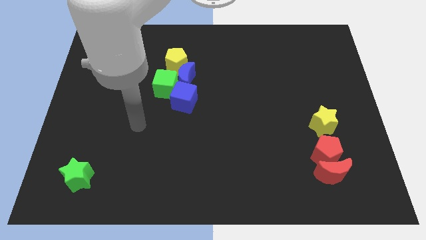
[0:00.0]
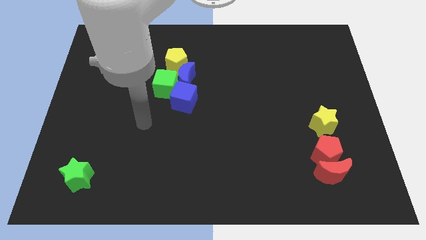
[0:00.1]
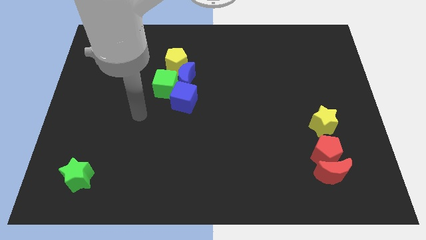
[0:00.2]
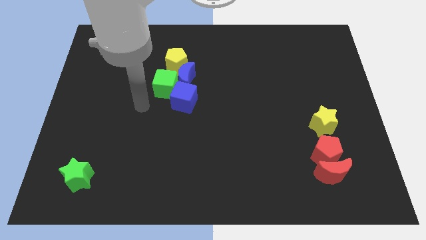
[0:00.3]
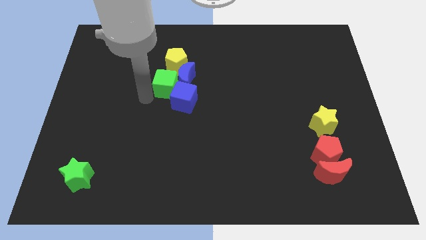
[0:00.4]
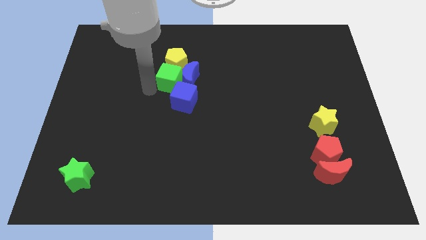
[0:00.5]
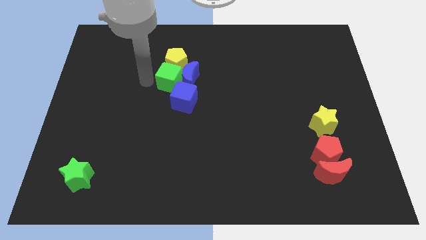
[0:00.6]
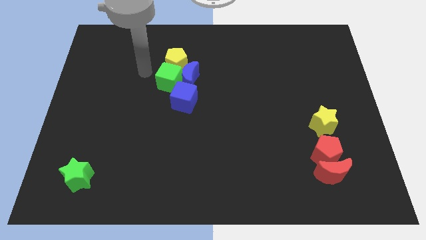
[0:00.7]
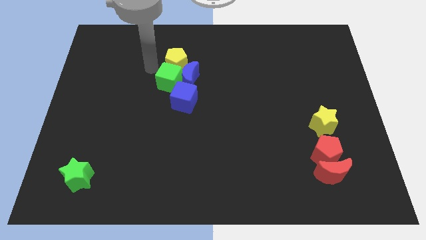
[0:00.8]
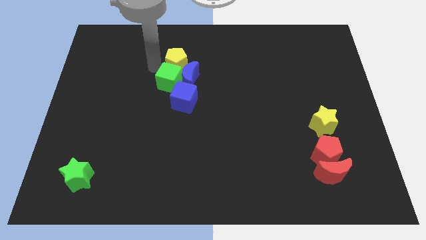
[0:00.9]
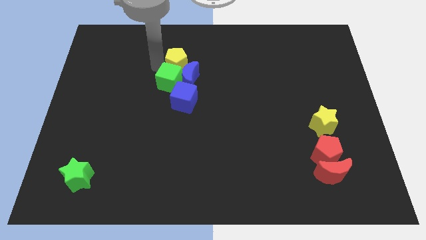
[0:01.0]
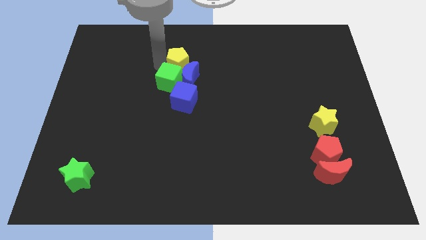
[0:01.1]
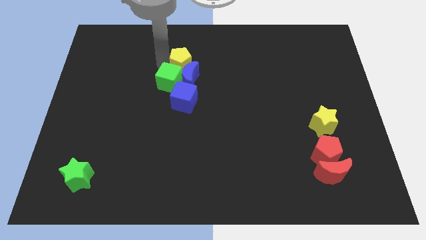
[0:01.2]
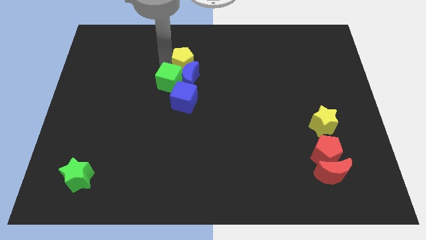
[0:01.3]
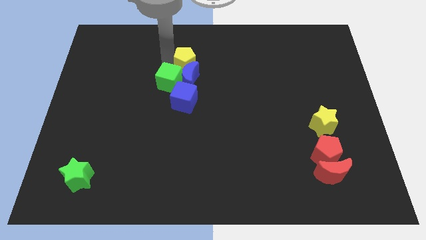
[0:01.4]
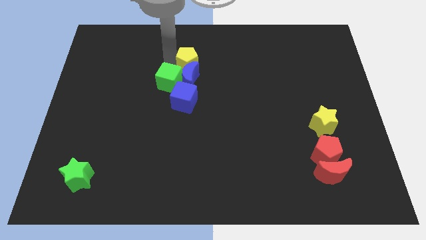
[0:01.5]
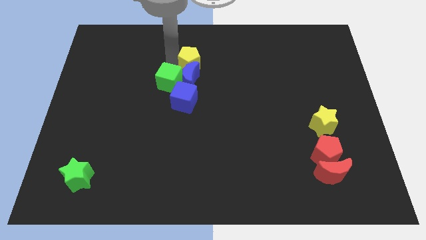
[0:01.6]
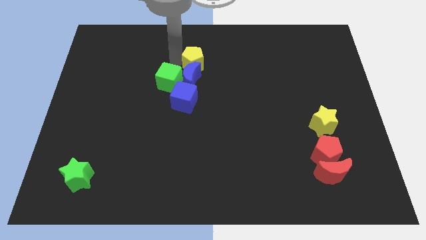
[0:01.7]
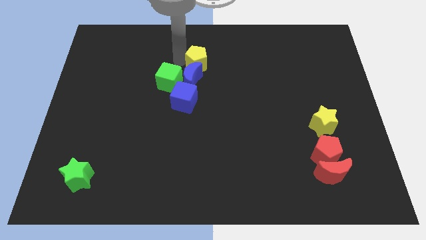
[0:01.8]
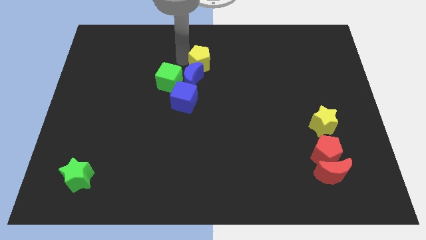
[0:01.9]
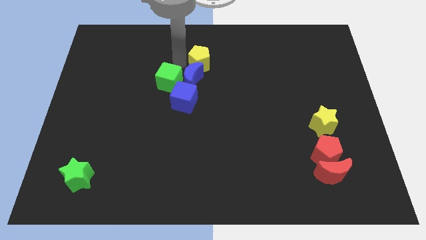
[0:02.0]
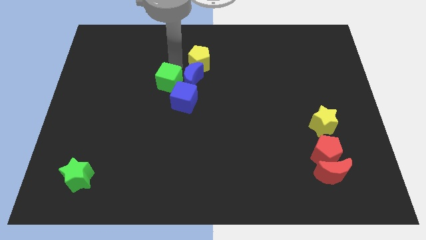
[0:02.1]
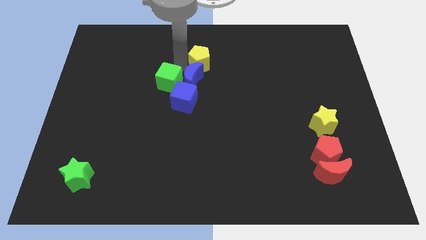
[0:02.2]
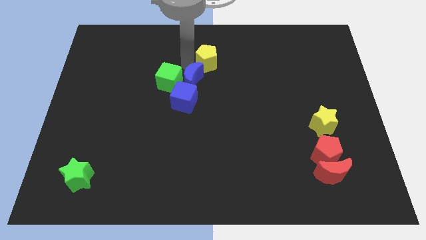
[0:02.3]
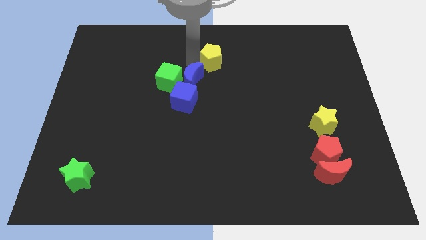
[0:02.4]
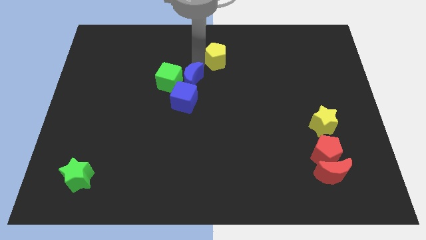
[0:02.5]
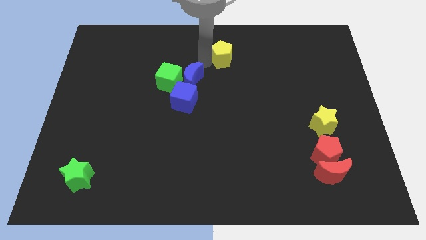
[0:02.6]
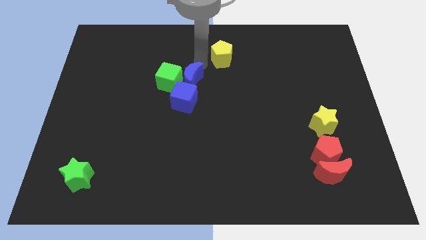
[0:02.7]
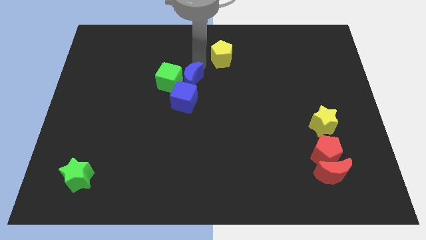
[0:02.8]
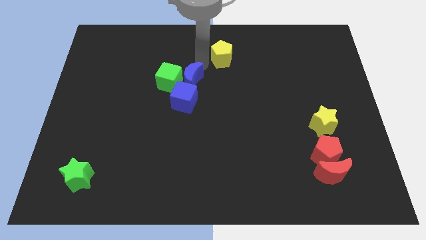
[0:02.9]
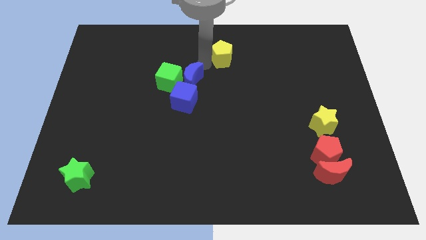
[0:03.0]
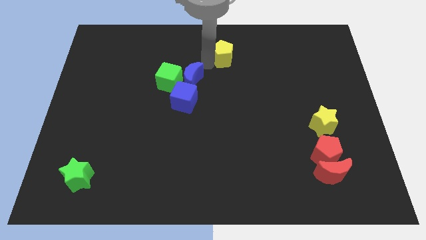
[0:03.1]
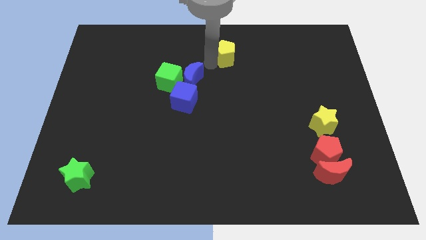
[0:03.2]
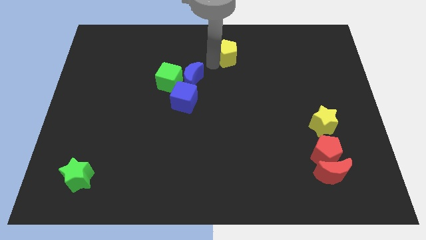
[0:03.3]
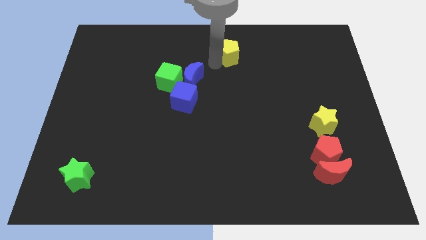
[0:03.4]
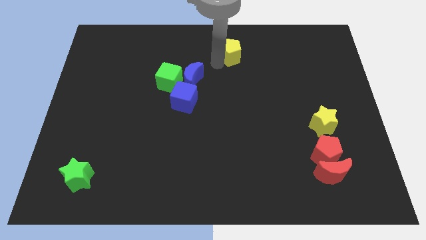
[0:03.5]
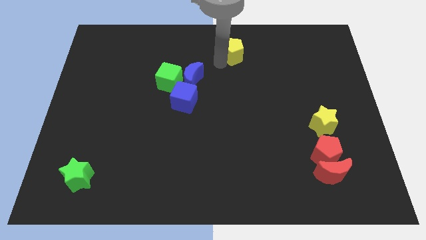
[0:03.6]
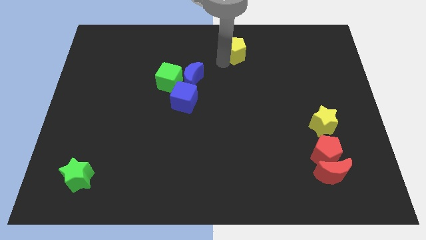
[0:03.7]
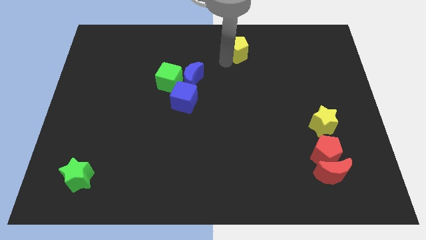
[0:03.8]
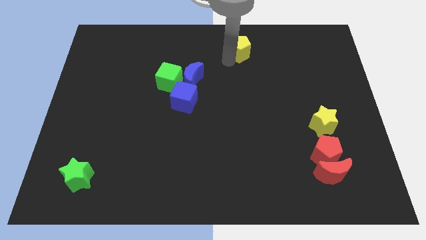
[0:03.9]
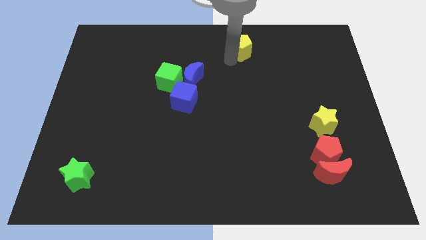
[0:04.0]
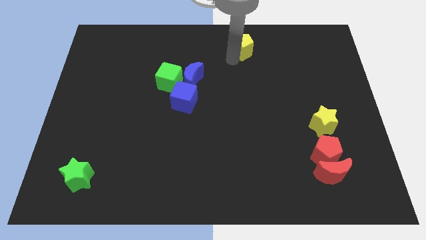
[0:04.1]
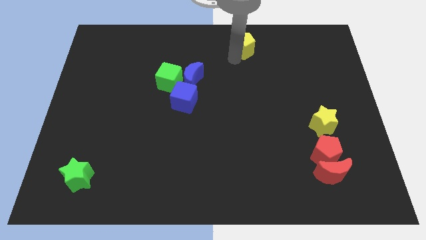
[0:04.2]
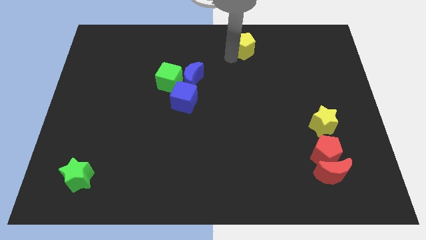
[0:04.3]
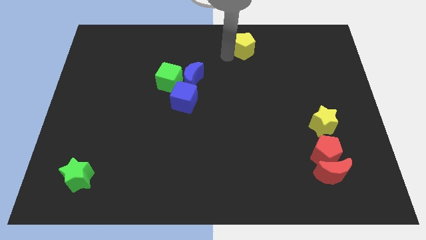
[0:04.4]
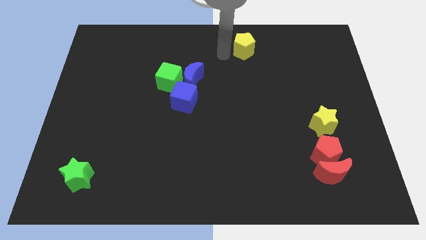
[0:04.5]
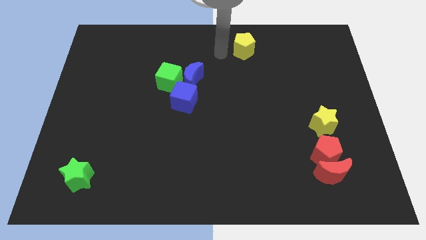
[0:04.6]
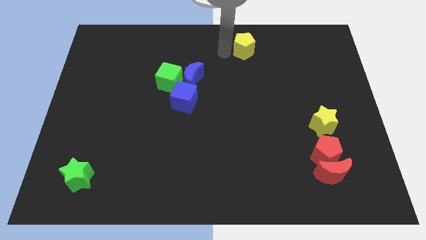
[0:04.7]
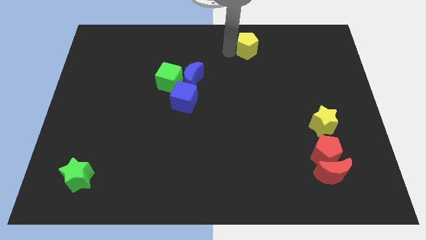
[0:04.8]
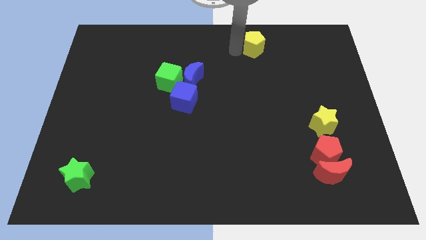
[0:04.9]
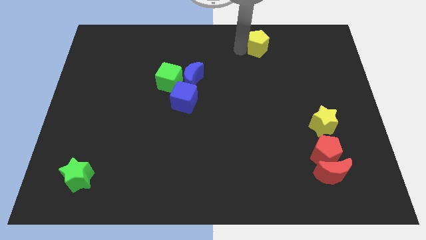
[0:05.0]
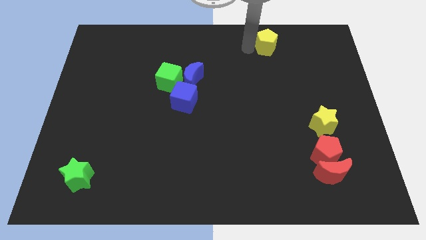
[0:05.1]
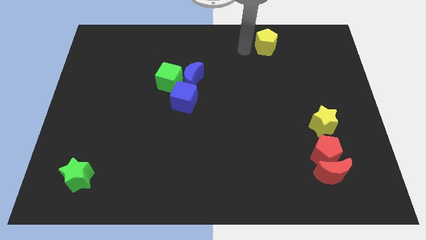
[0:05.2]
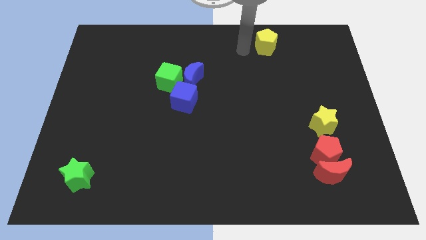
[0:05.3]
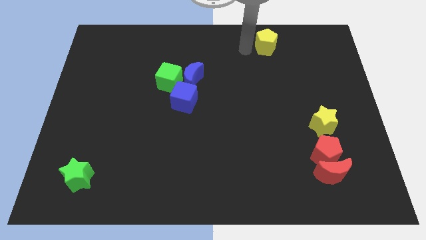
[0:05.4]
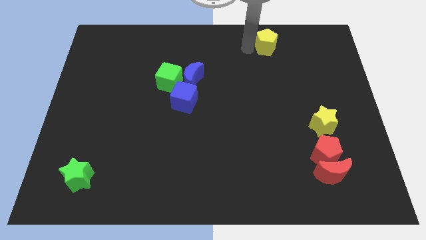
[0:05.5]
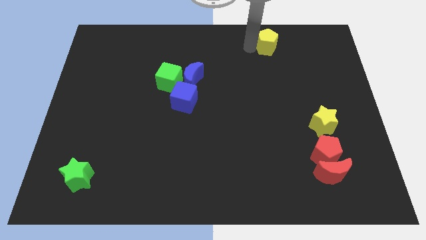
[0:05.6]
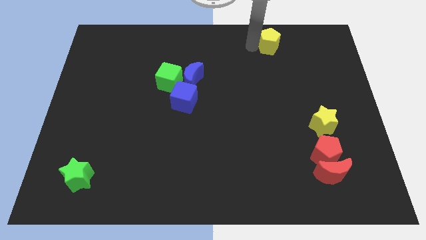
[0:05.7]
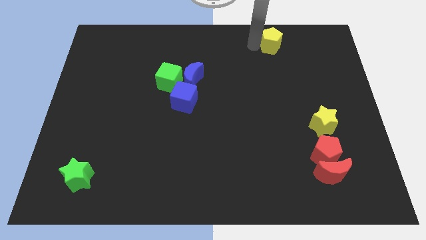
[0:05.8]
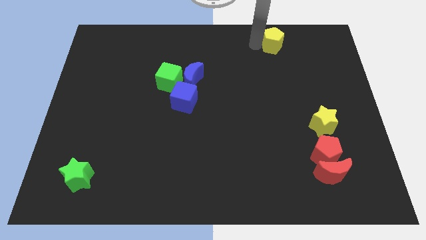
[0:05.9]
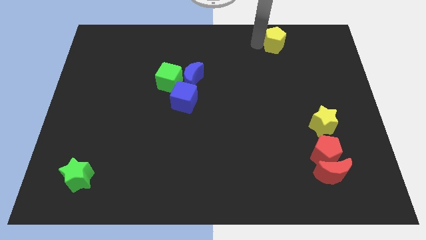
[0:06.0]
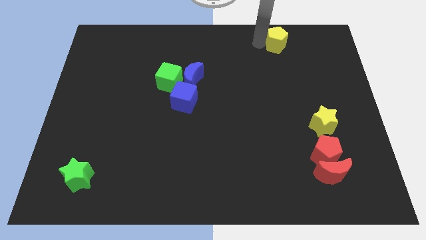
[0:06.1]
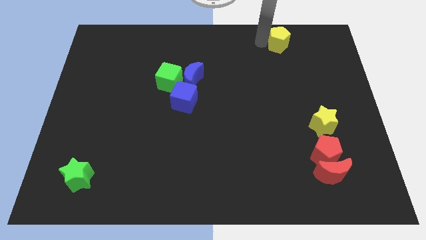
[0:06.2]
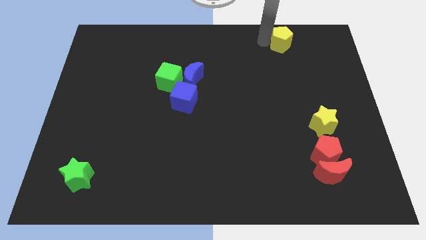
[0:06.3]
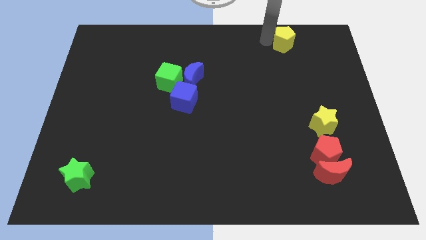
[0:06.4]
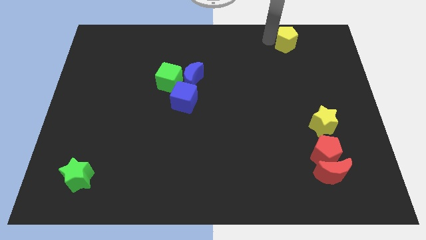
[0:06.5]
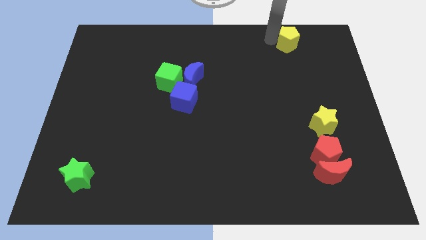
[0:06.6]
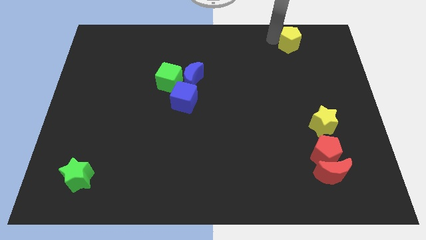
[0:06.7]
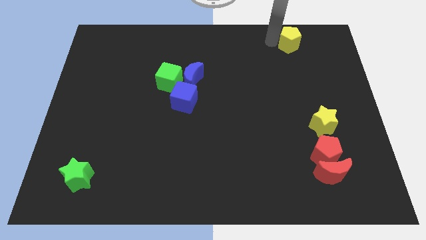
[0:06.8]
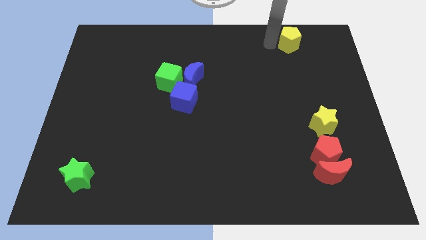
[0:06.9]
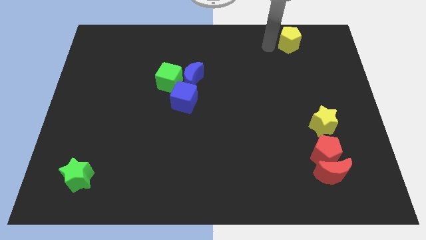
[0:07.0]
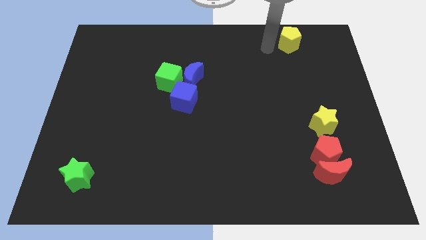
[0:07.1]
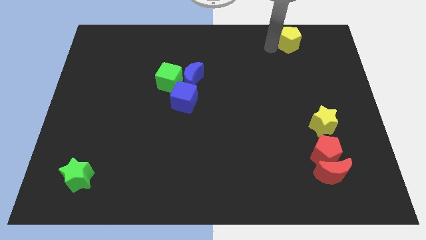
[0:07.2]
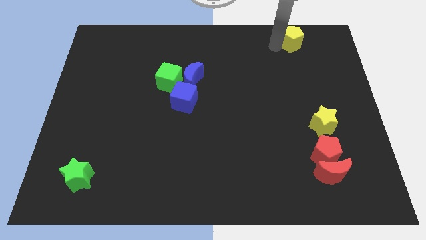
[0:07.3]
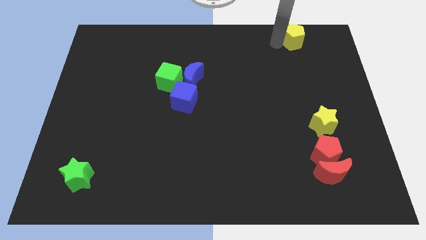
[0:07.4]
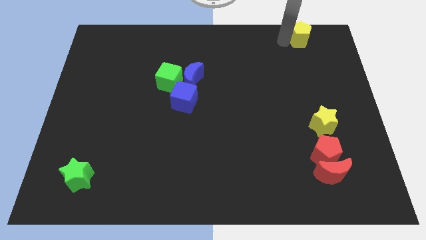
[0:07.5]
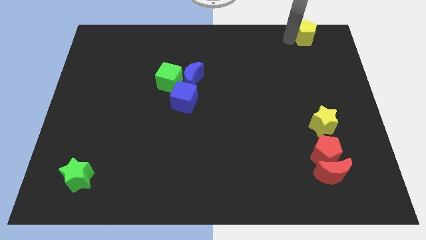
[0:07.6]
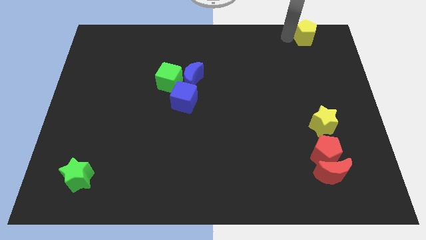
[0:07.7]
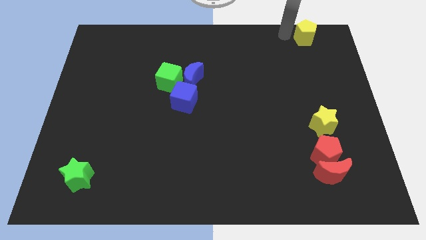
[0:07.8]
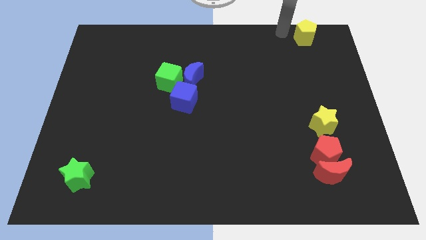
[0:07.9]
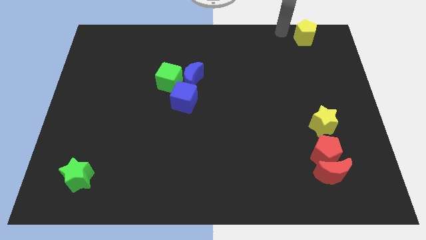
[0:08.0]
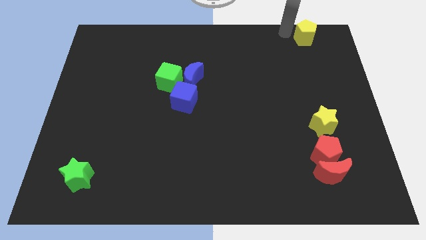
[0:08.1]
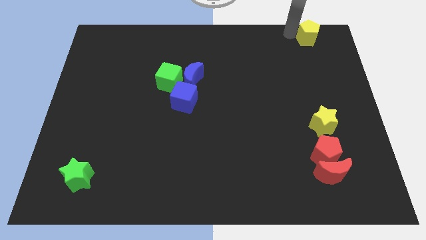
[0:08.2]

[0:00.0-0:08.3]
move the yellow pentagon to the top right
